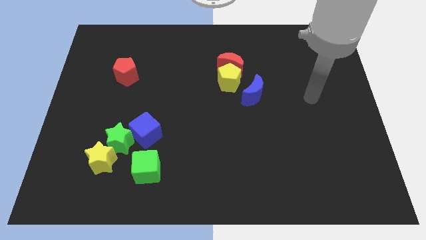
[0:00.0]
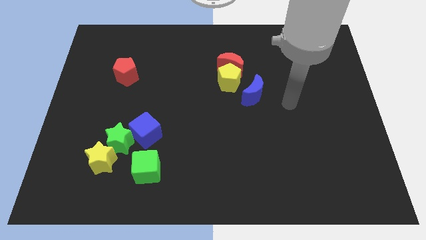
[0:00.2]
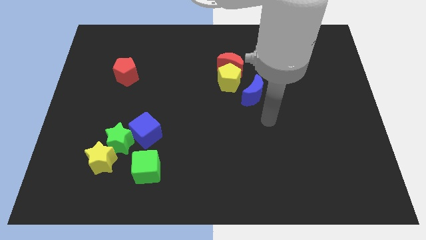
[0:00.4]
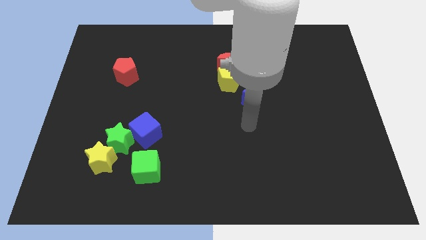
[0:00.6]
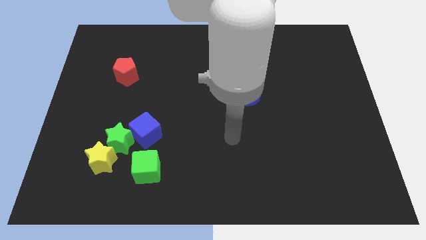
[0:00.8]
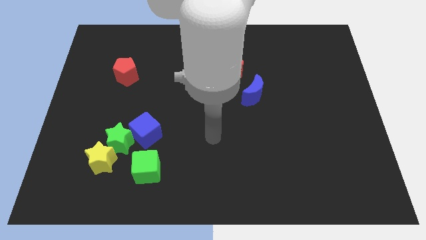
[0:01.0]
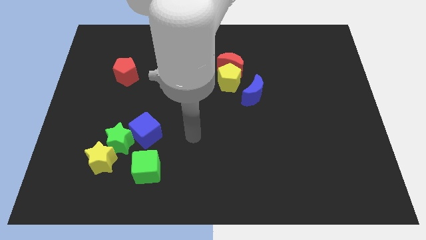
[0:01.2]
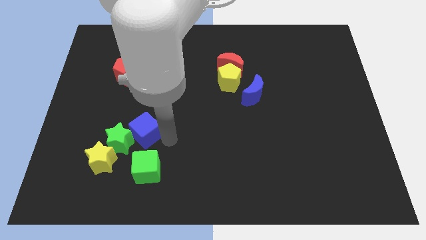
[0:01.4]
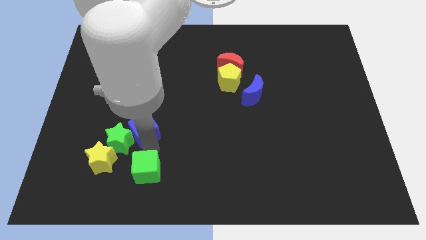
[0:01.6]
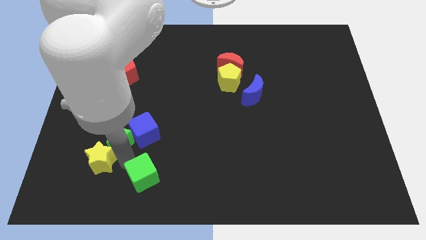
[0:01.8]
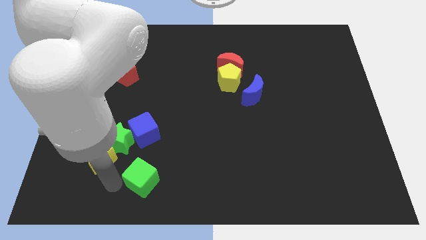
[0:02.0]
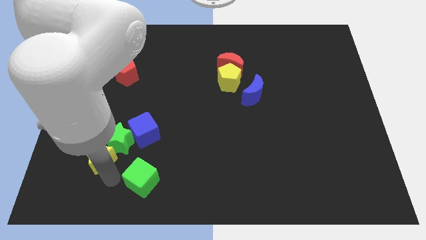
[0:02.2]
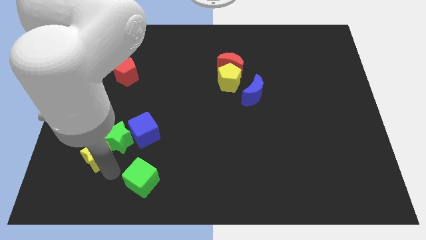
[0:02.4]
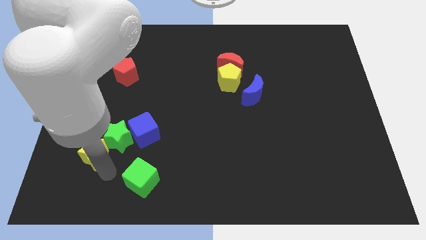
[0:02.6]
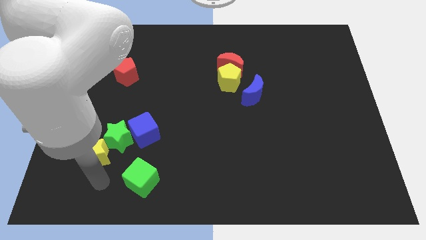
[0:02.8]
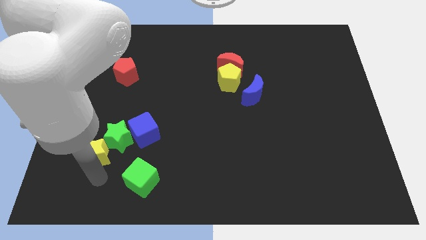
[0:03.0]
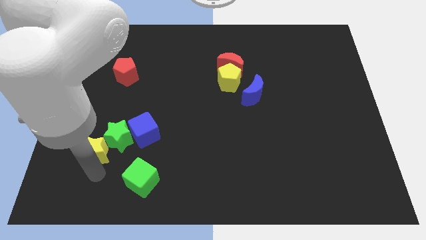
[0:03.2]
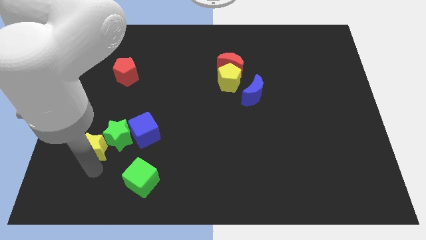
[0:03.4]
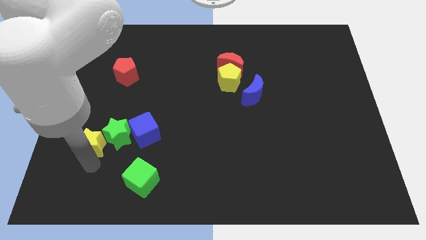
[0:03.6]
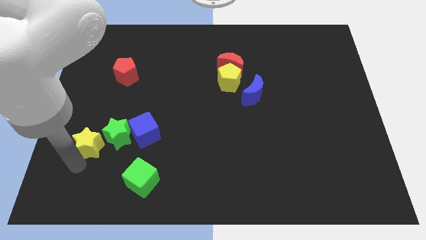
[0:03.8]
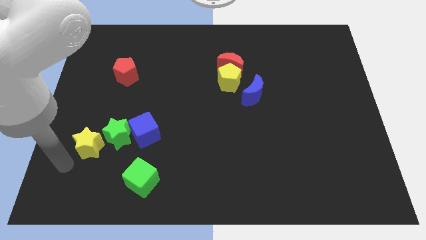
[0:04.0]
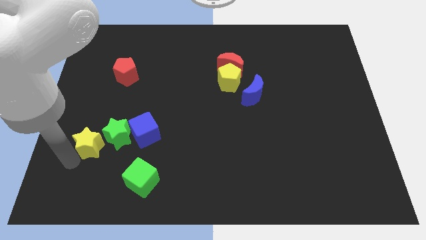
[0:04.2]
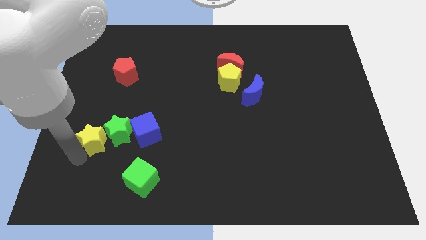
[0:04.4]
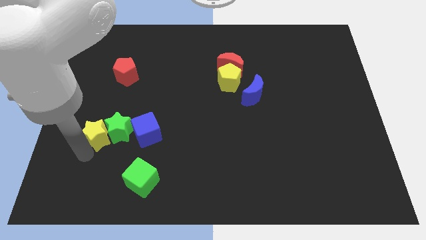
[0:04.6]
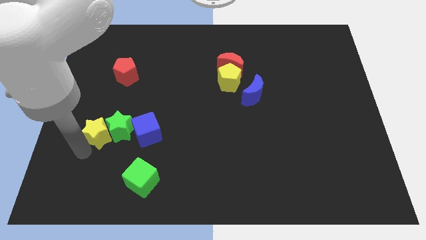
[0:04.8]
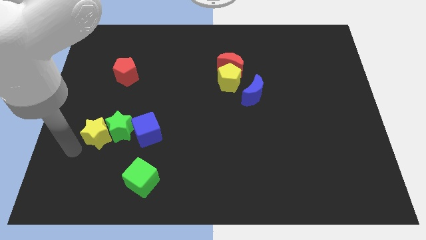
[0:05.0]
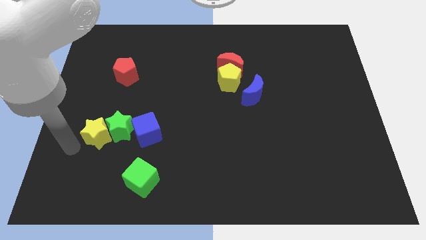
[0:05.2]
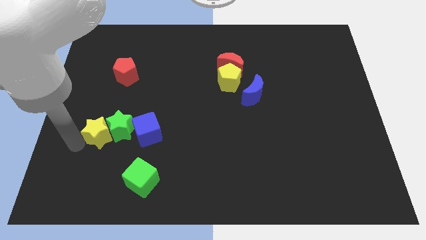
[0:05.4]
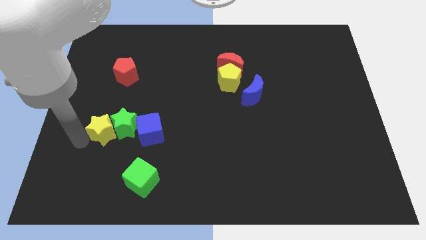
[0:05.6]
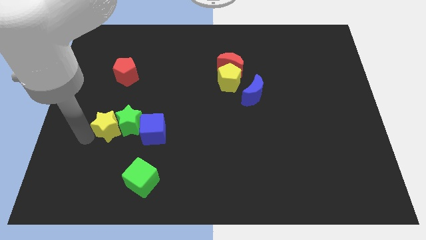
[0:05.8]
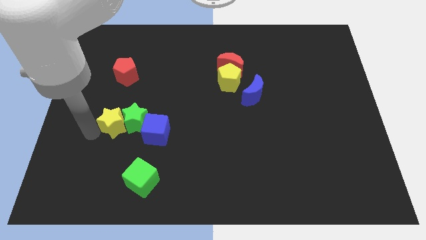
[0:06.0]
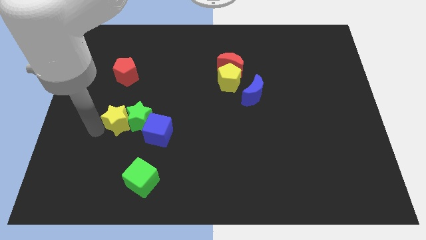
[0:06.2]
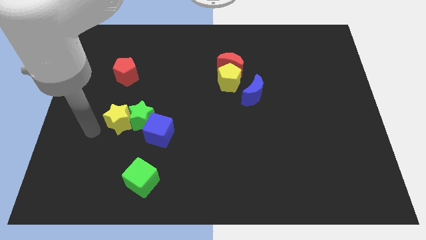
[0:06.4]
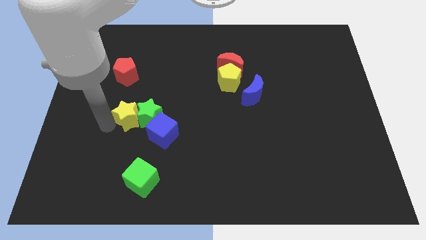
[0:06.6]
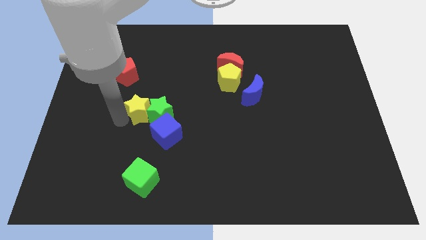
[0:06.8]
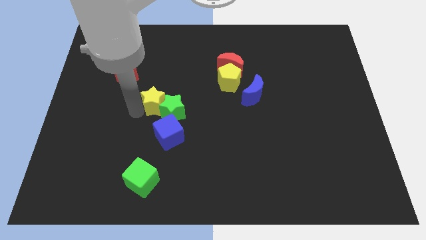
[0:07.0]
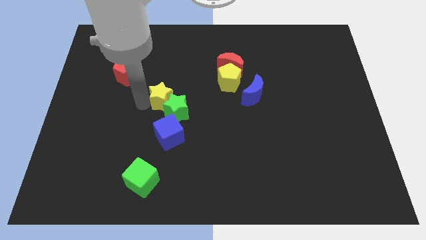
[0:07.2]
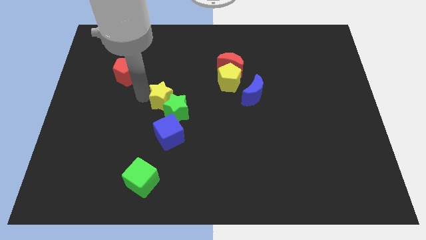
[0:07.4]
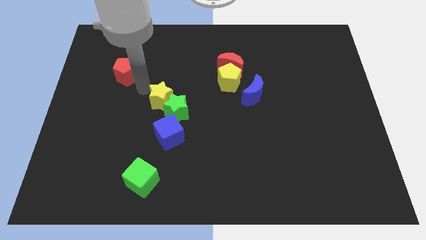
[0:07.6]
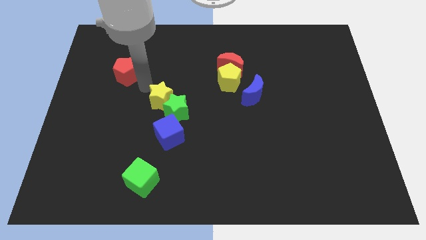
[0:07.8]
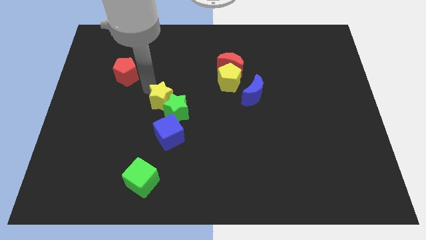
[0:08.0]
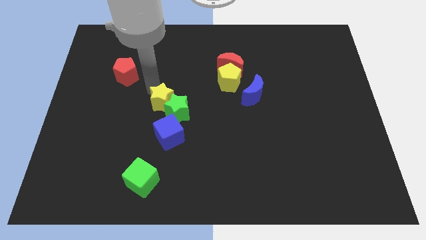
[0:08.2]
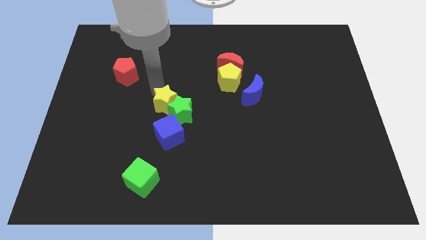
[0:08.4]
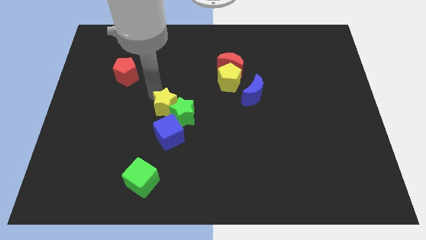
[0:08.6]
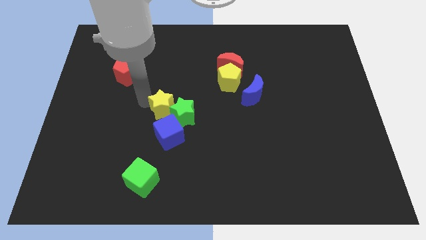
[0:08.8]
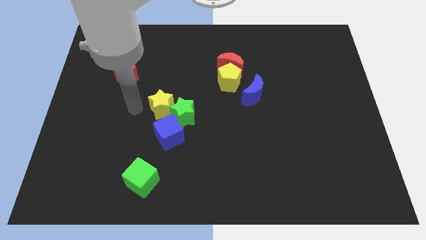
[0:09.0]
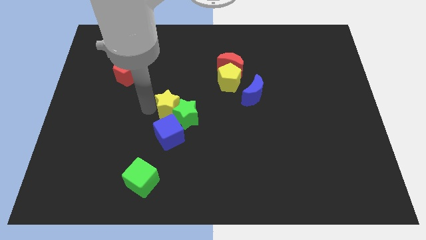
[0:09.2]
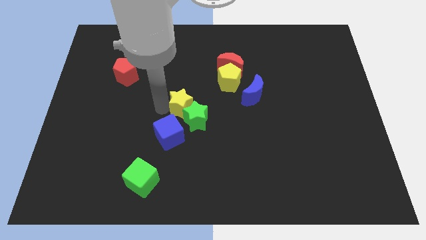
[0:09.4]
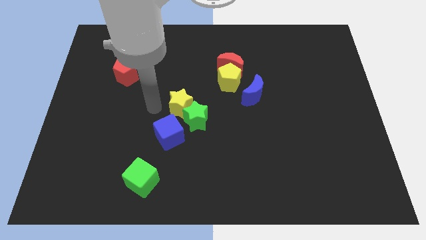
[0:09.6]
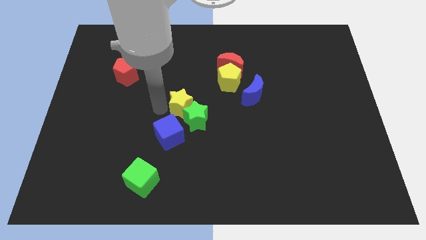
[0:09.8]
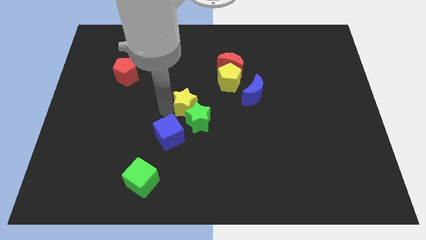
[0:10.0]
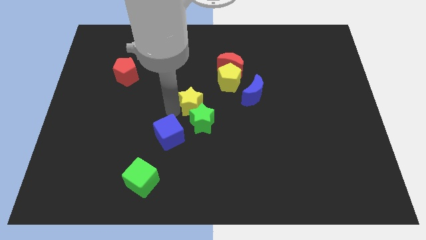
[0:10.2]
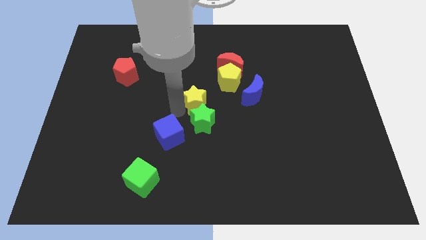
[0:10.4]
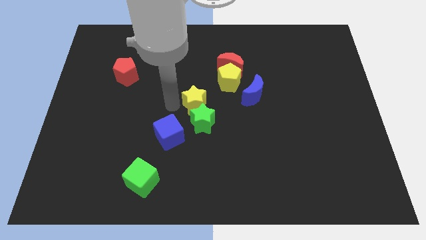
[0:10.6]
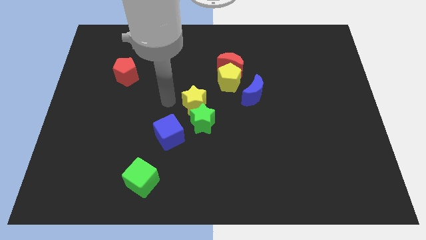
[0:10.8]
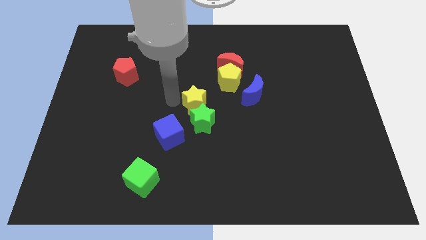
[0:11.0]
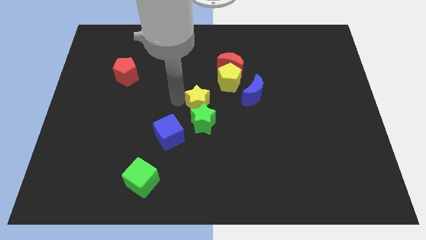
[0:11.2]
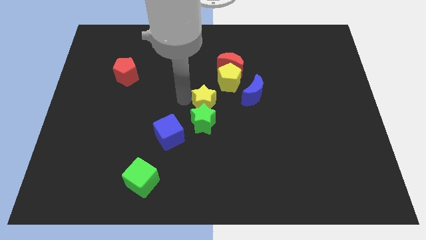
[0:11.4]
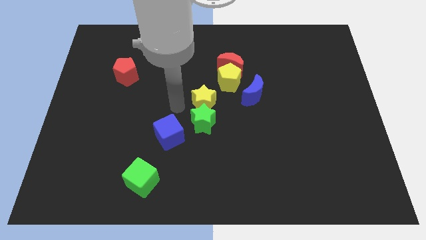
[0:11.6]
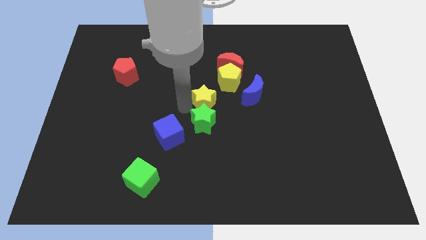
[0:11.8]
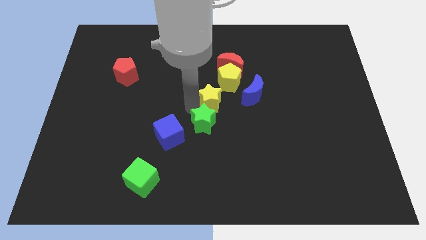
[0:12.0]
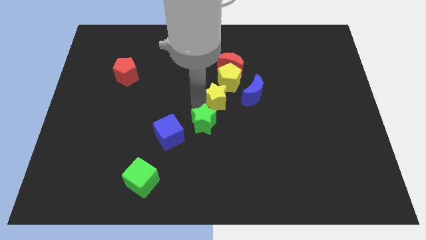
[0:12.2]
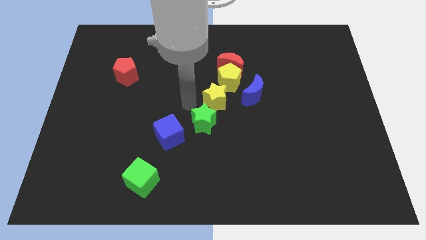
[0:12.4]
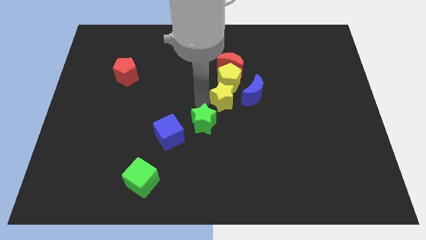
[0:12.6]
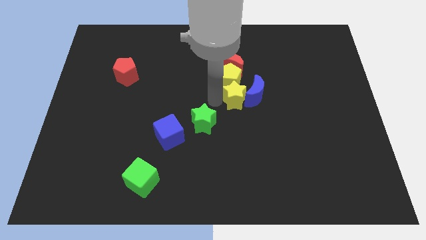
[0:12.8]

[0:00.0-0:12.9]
slide the yellow star to the blue moon
